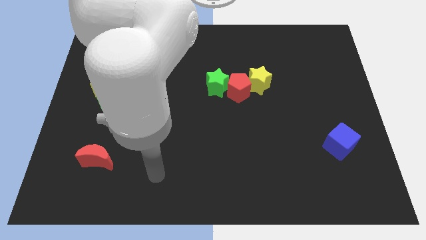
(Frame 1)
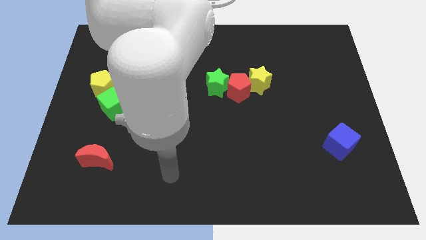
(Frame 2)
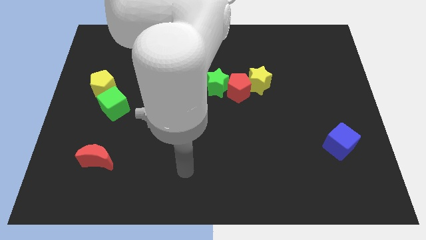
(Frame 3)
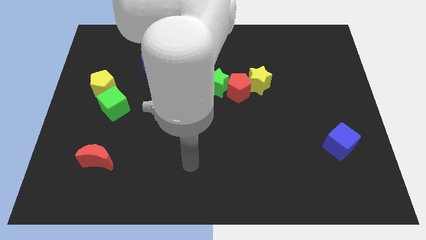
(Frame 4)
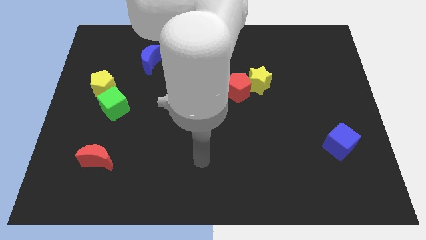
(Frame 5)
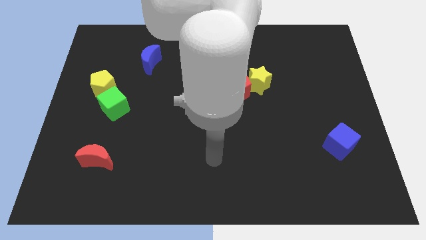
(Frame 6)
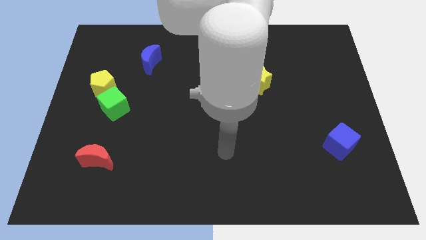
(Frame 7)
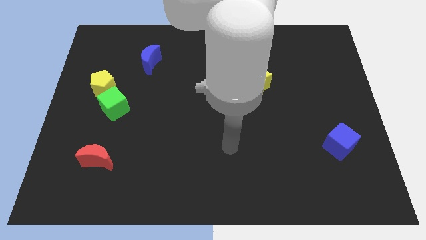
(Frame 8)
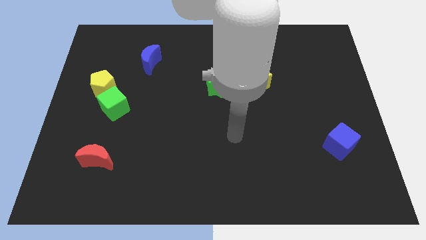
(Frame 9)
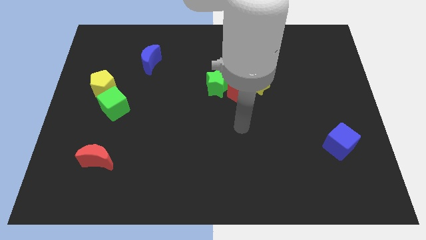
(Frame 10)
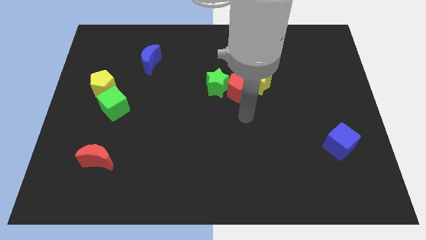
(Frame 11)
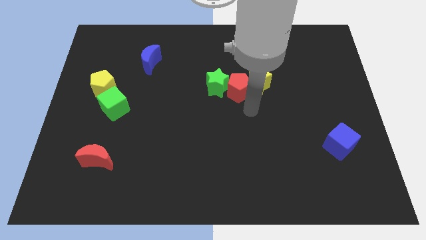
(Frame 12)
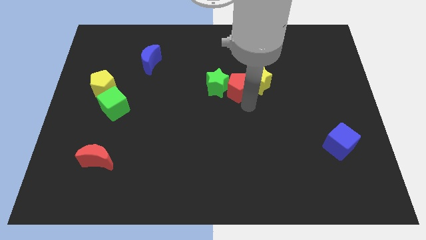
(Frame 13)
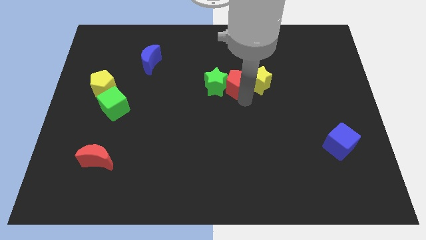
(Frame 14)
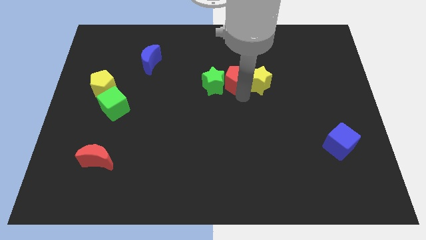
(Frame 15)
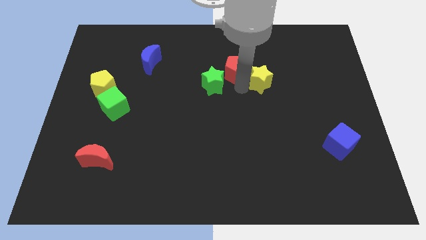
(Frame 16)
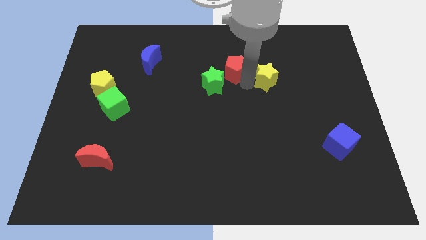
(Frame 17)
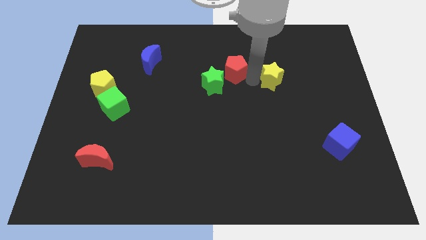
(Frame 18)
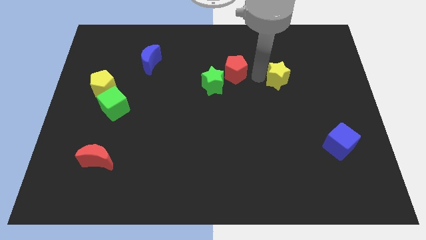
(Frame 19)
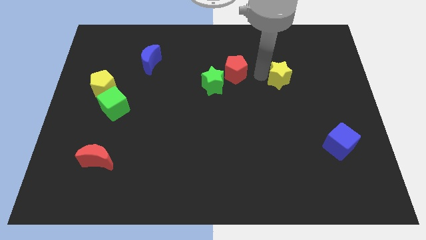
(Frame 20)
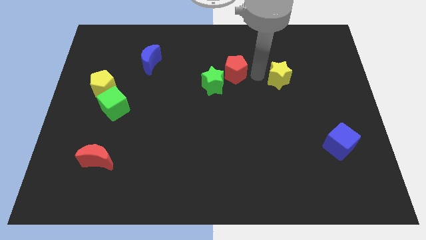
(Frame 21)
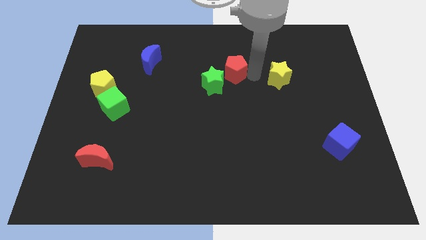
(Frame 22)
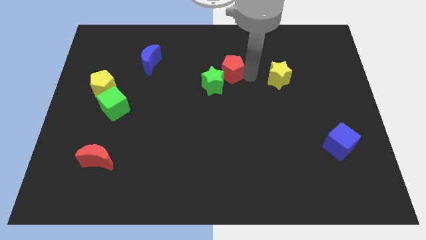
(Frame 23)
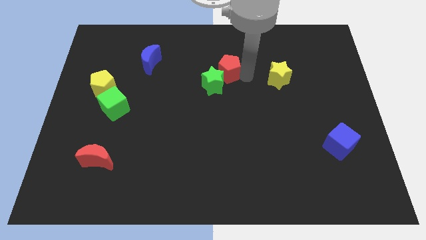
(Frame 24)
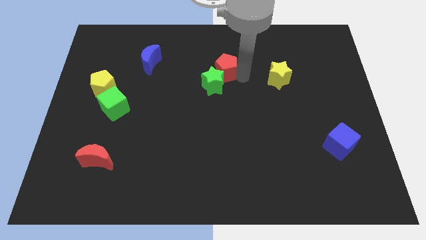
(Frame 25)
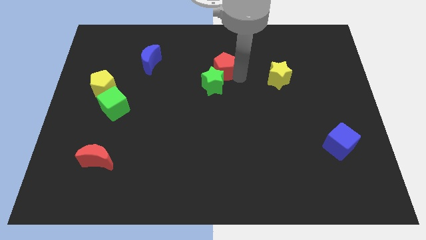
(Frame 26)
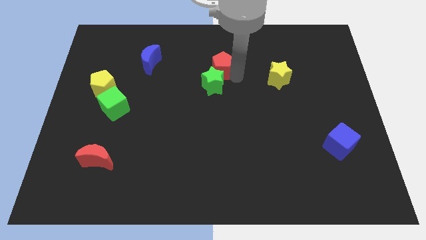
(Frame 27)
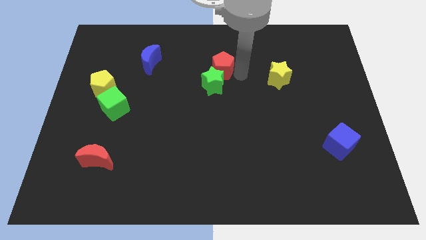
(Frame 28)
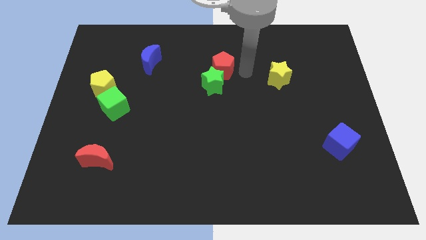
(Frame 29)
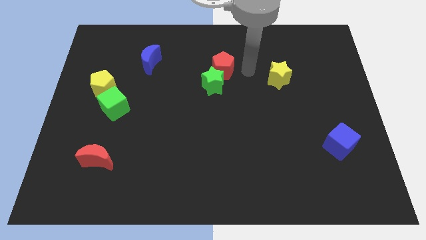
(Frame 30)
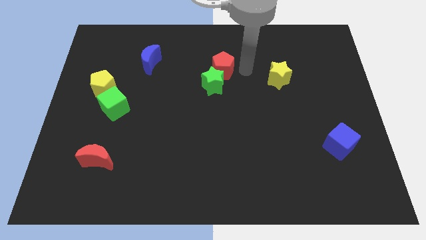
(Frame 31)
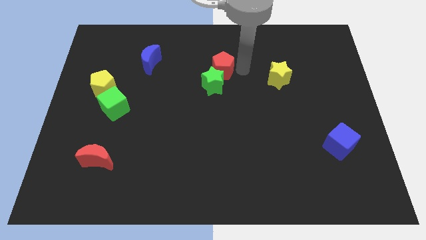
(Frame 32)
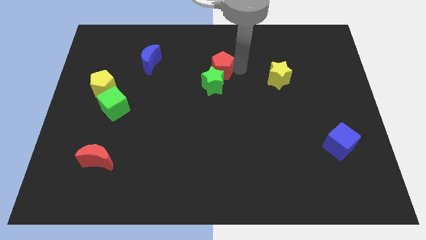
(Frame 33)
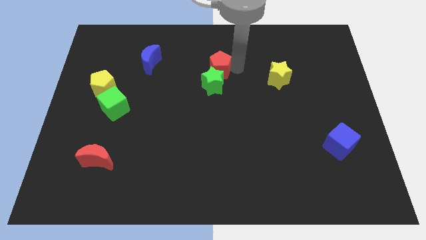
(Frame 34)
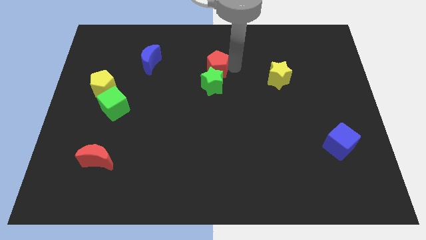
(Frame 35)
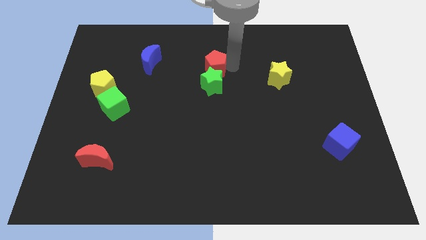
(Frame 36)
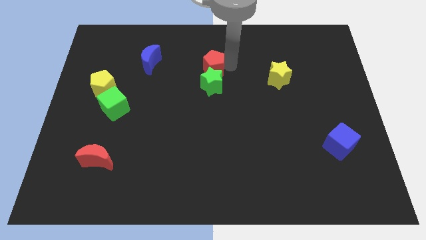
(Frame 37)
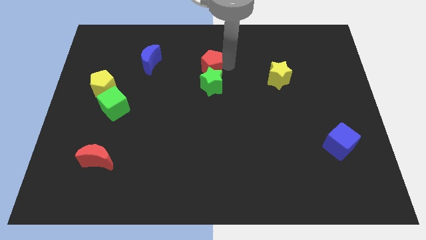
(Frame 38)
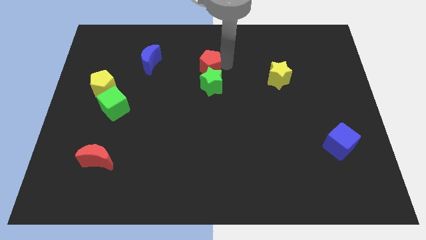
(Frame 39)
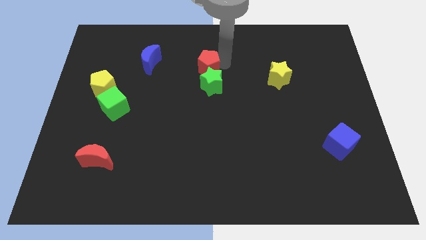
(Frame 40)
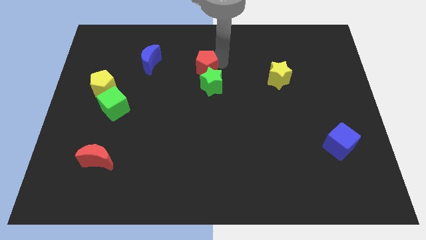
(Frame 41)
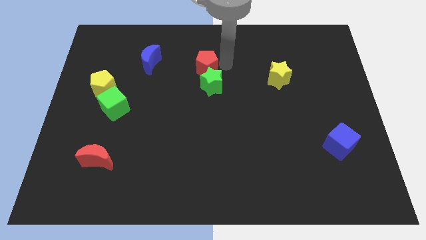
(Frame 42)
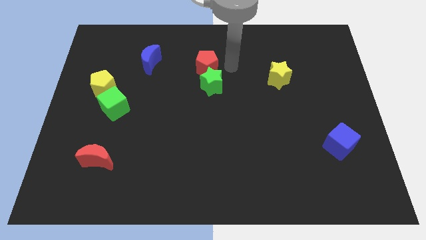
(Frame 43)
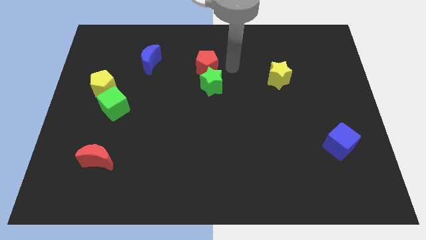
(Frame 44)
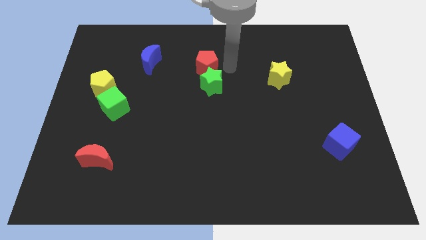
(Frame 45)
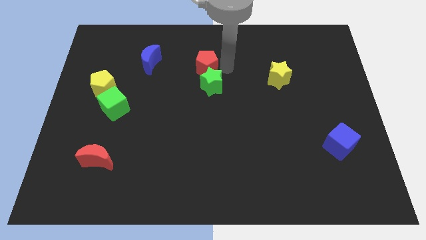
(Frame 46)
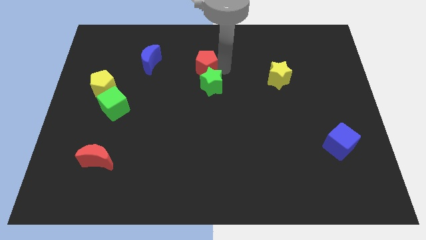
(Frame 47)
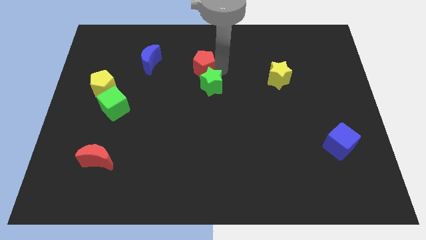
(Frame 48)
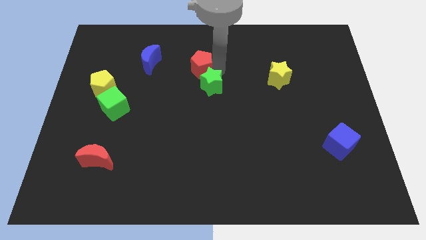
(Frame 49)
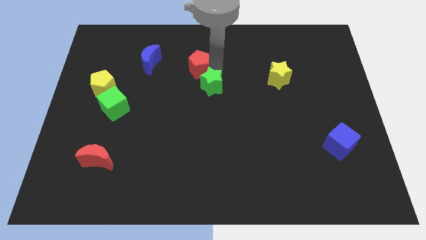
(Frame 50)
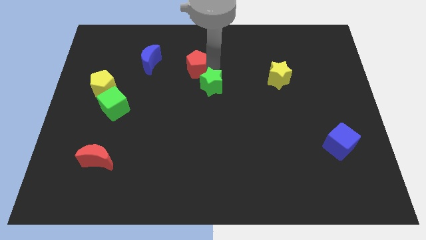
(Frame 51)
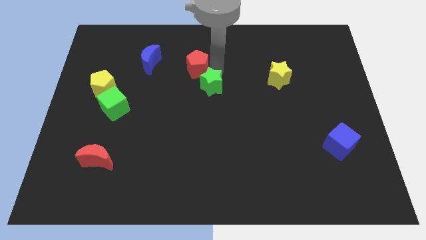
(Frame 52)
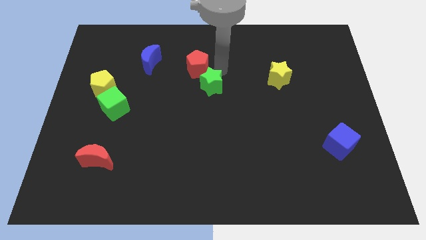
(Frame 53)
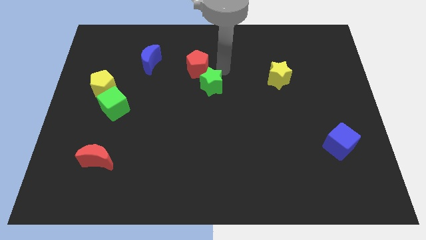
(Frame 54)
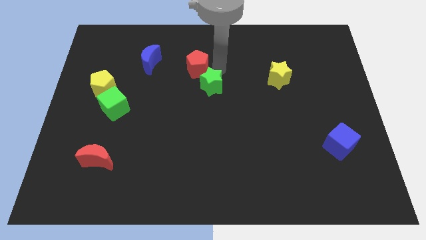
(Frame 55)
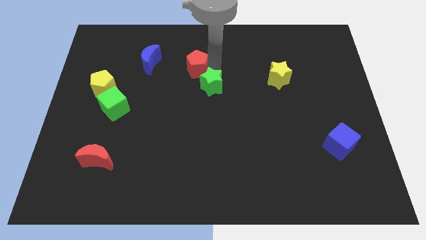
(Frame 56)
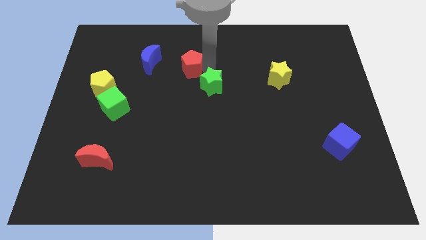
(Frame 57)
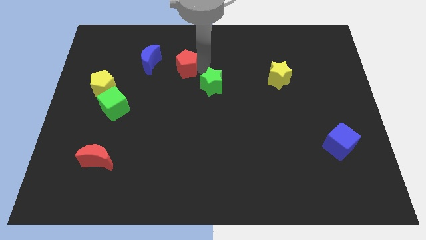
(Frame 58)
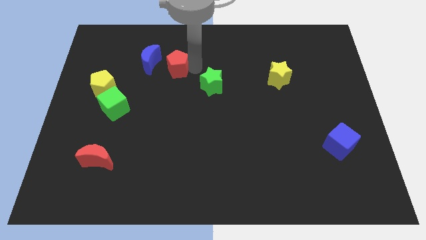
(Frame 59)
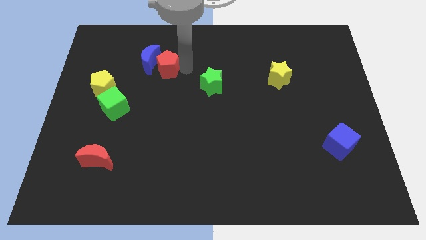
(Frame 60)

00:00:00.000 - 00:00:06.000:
slide the red pentagon to the blue moon

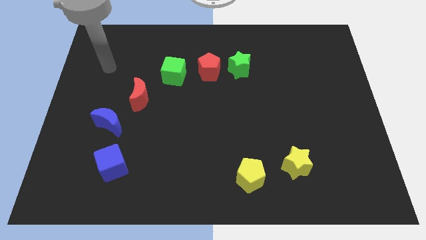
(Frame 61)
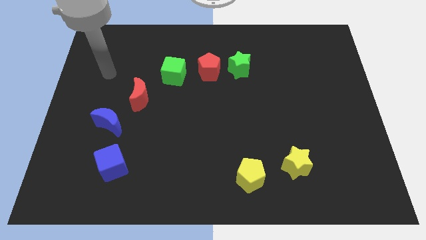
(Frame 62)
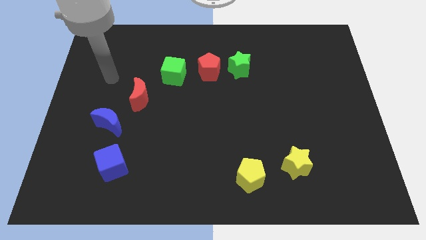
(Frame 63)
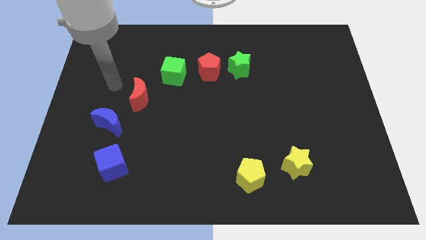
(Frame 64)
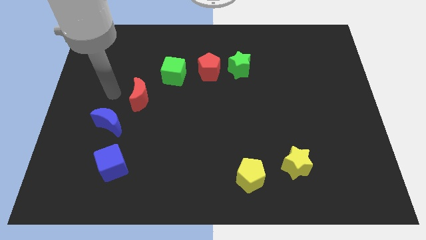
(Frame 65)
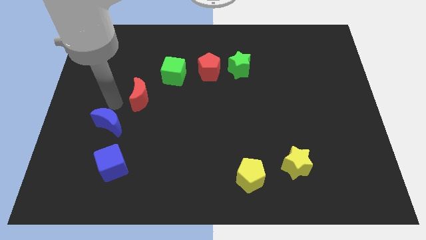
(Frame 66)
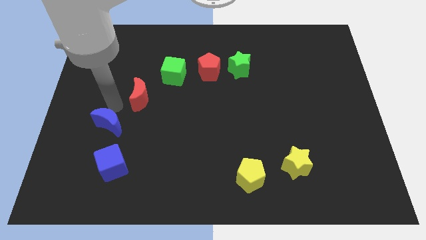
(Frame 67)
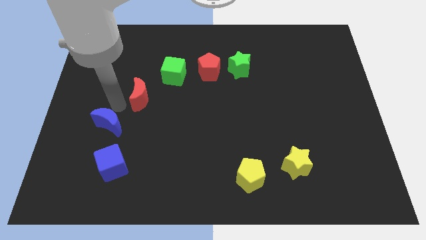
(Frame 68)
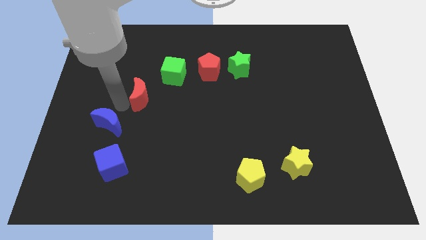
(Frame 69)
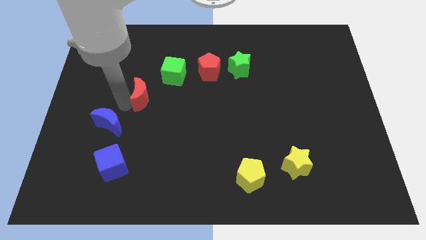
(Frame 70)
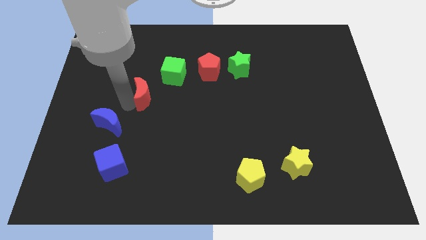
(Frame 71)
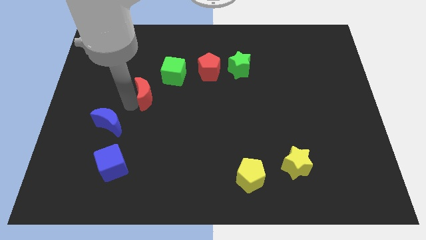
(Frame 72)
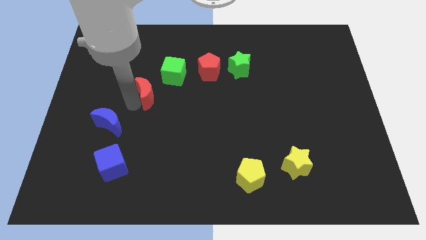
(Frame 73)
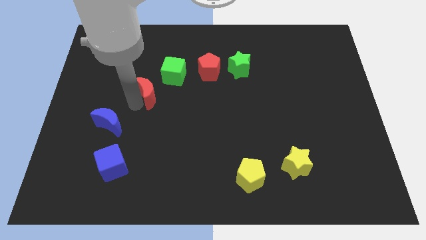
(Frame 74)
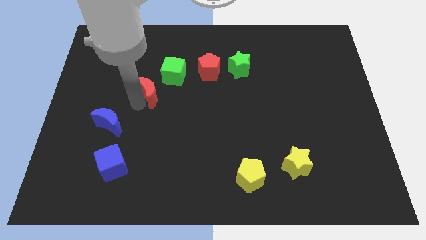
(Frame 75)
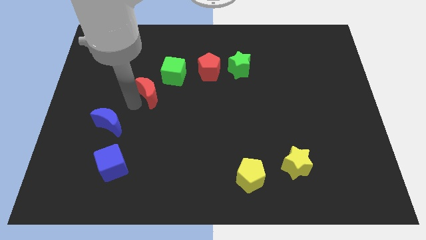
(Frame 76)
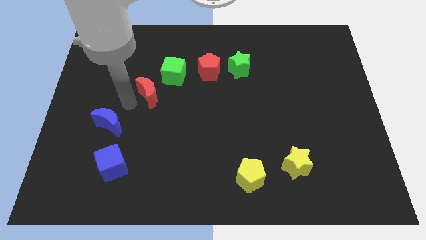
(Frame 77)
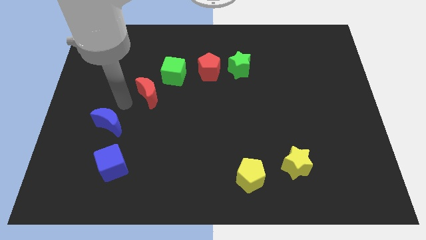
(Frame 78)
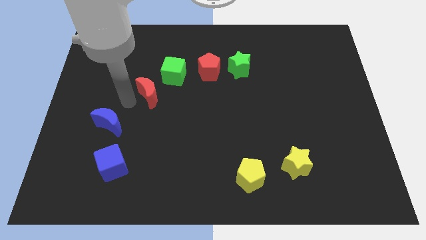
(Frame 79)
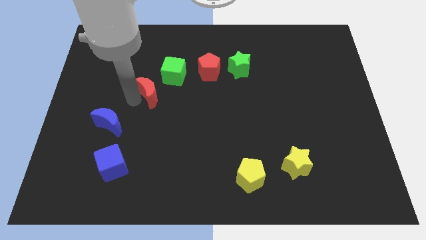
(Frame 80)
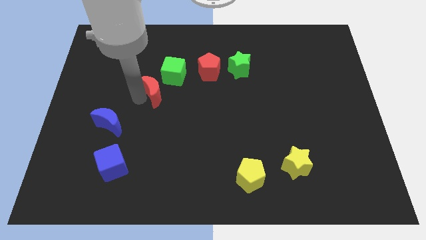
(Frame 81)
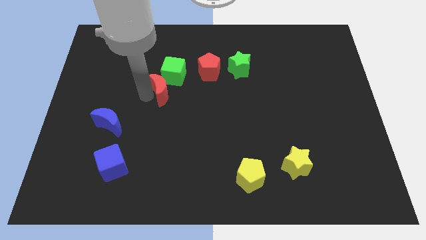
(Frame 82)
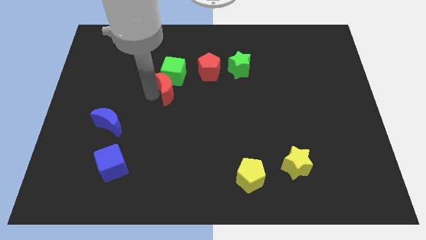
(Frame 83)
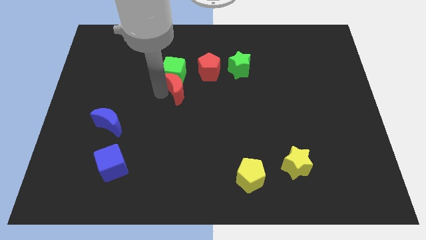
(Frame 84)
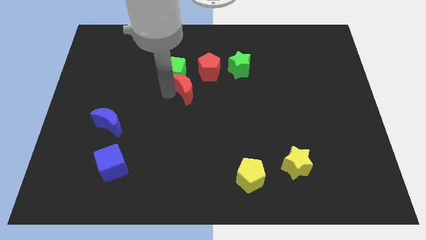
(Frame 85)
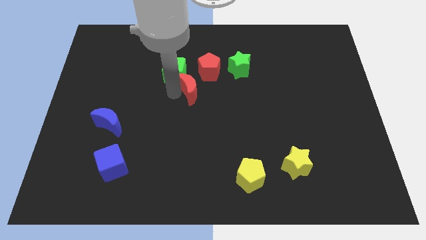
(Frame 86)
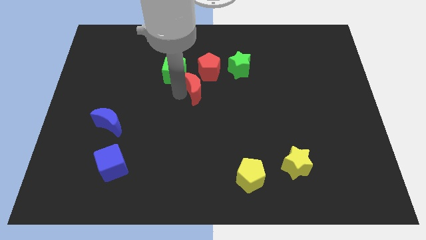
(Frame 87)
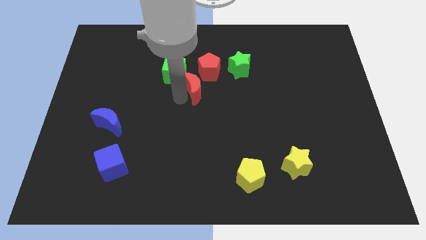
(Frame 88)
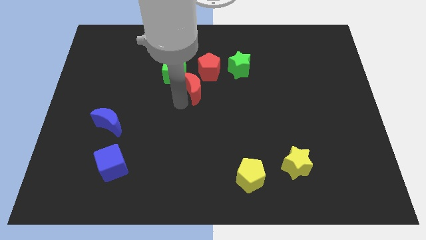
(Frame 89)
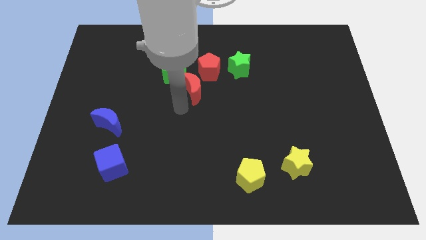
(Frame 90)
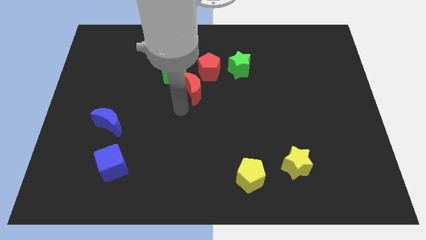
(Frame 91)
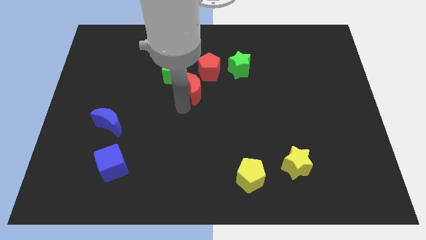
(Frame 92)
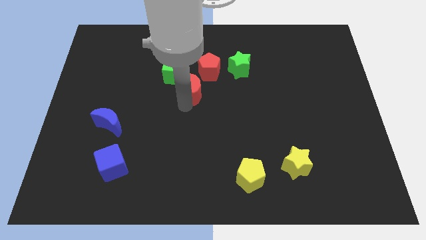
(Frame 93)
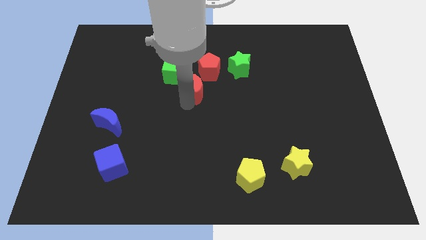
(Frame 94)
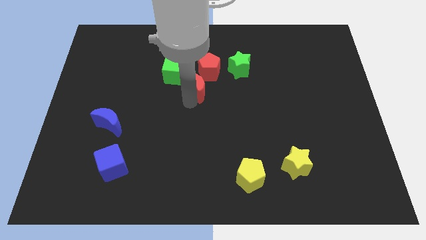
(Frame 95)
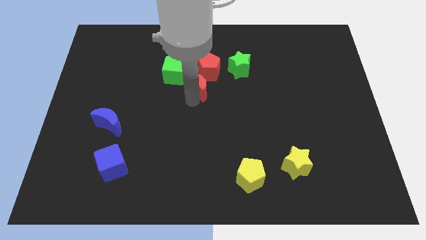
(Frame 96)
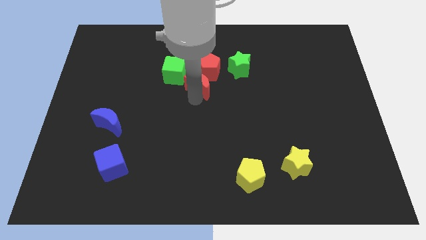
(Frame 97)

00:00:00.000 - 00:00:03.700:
slide the red moon to the red pentagon
